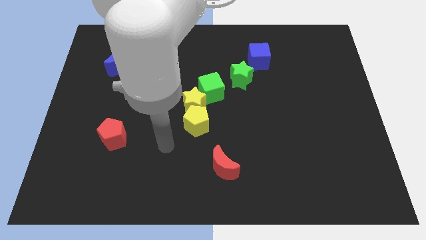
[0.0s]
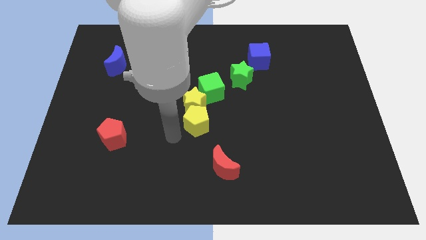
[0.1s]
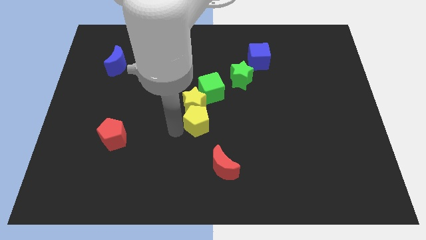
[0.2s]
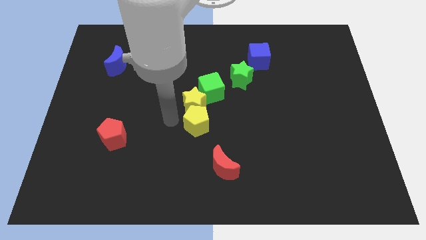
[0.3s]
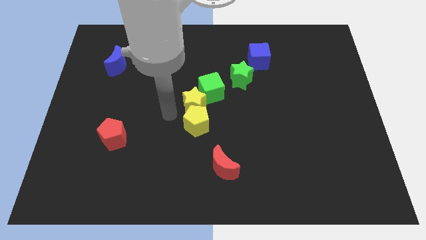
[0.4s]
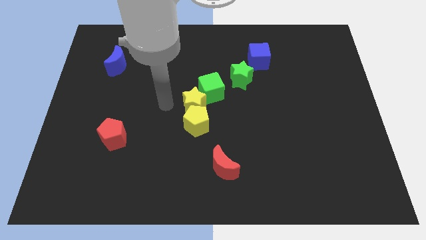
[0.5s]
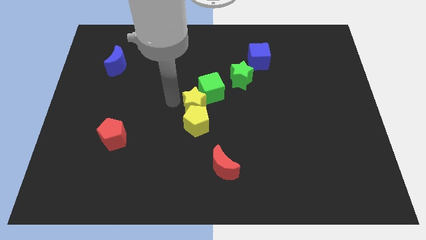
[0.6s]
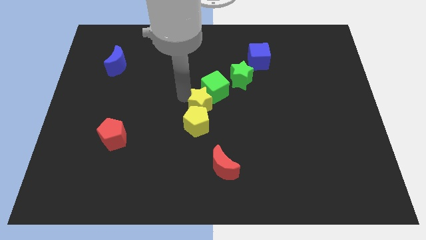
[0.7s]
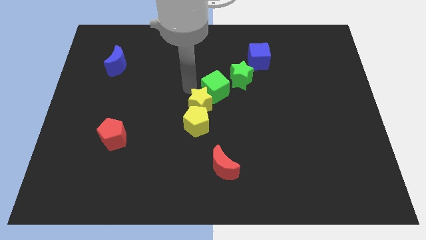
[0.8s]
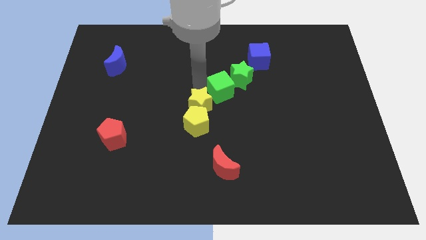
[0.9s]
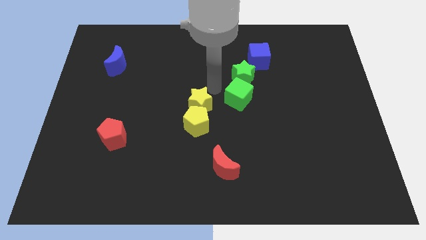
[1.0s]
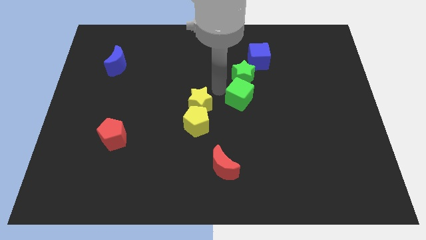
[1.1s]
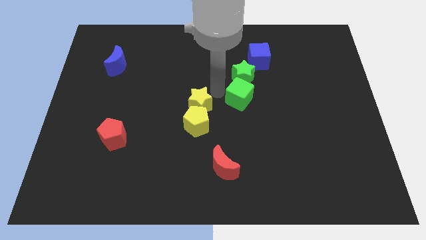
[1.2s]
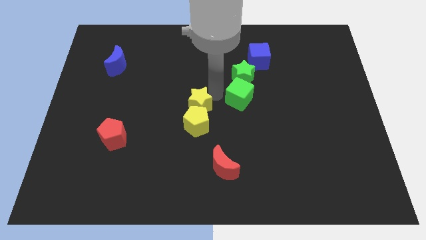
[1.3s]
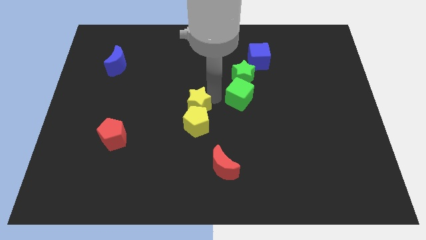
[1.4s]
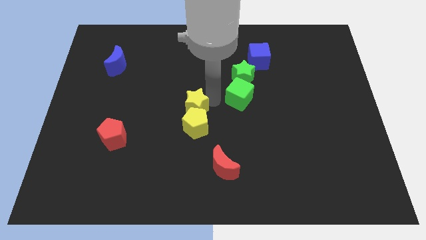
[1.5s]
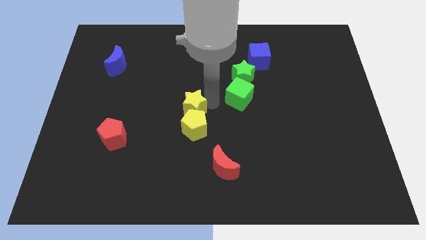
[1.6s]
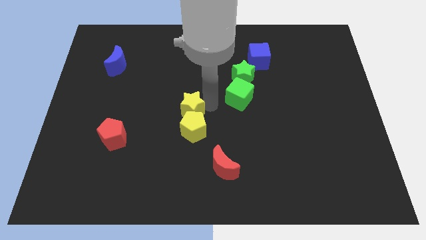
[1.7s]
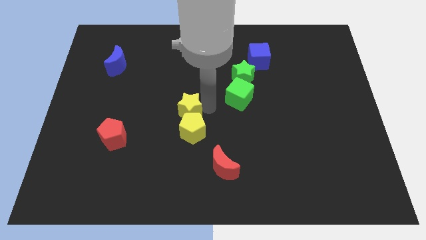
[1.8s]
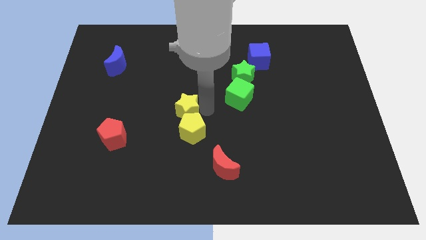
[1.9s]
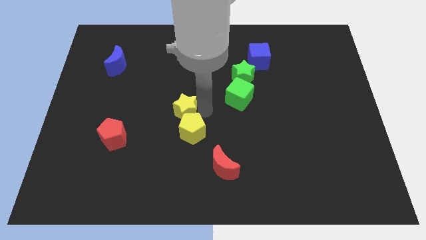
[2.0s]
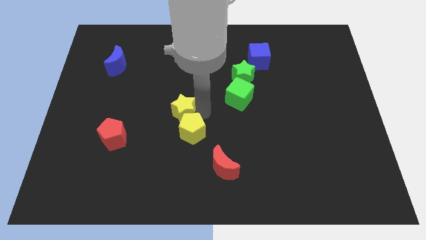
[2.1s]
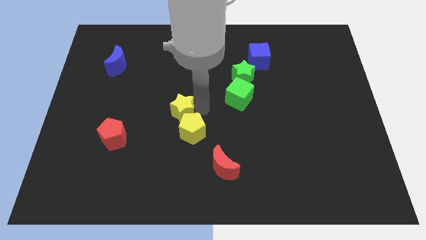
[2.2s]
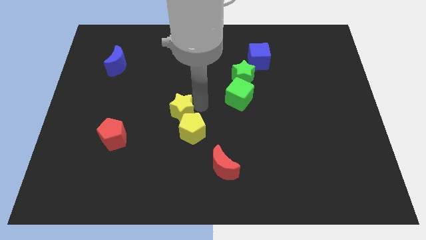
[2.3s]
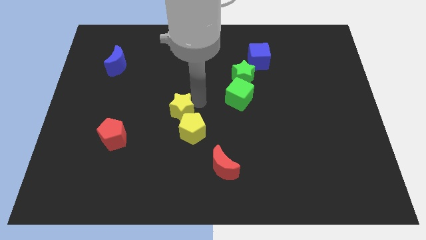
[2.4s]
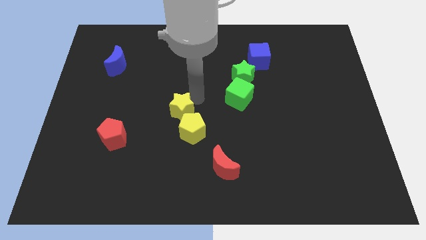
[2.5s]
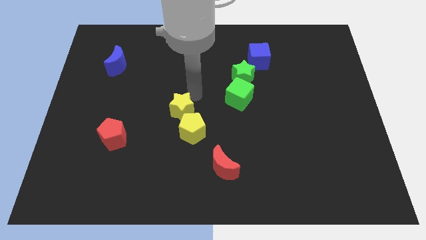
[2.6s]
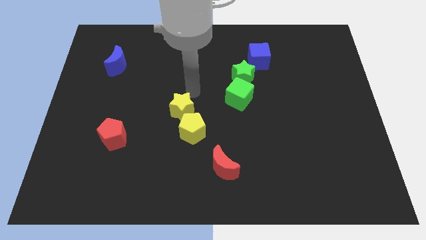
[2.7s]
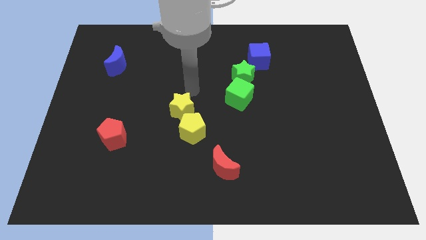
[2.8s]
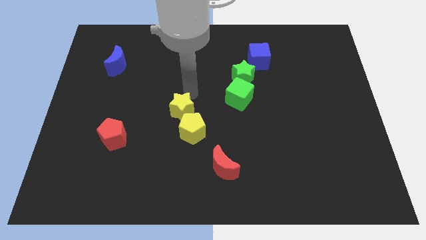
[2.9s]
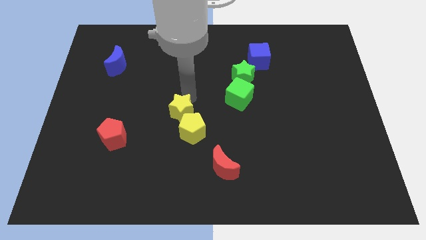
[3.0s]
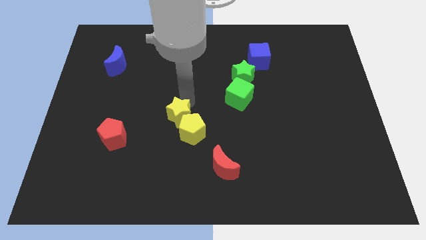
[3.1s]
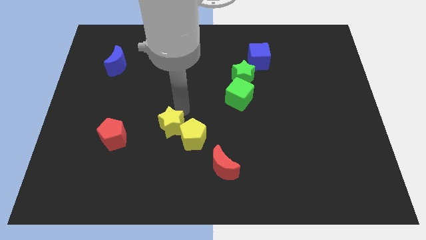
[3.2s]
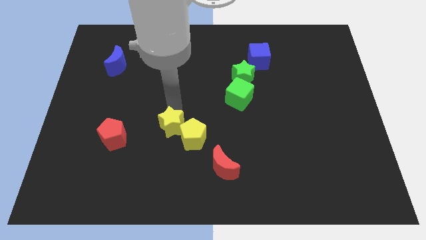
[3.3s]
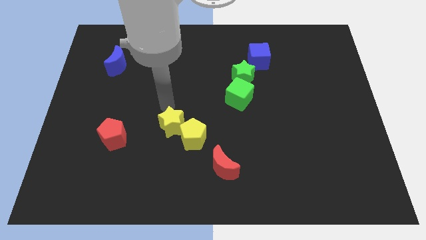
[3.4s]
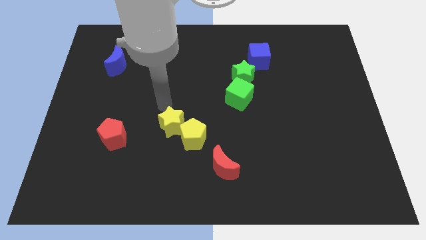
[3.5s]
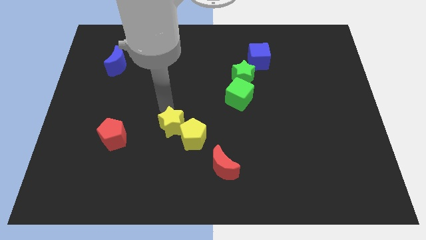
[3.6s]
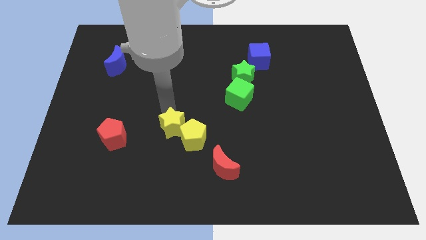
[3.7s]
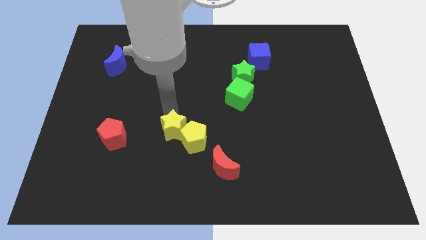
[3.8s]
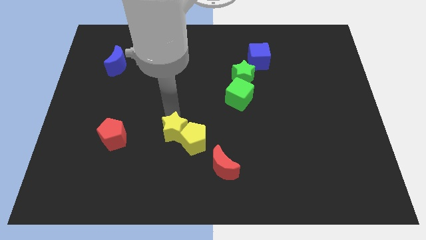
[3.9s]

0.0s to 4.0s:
slightly move the yellow star downwards

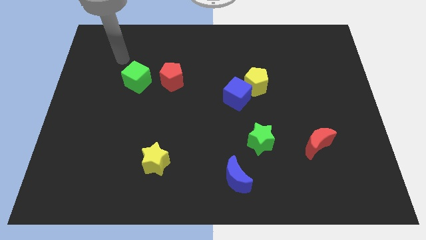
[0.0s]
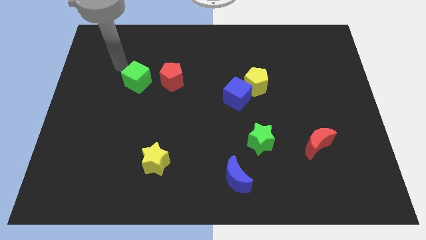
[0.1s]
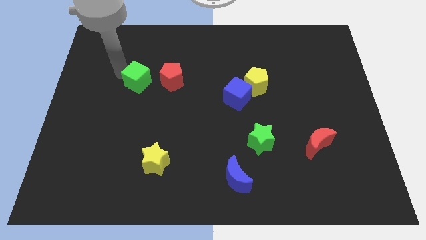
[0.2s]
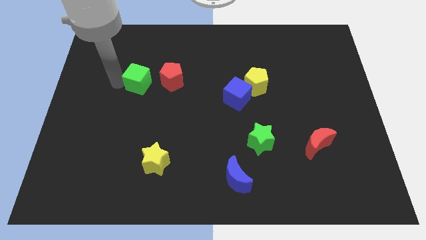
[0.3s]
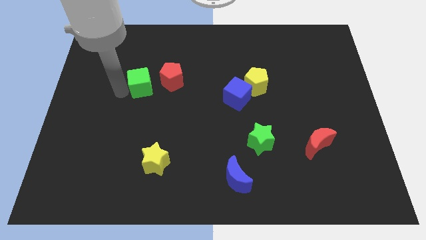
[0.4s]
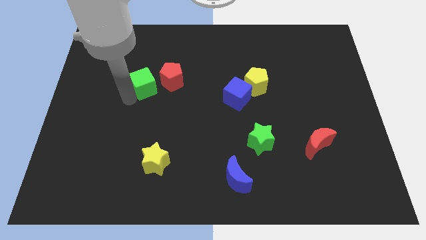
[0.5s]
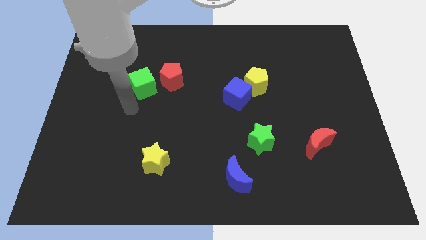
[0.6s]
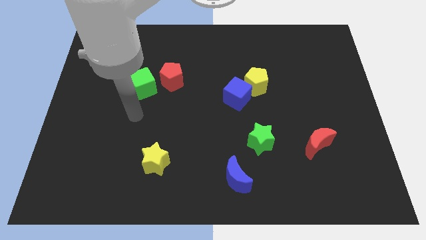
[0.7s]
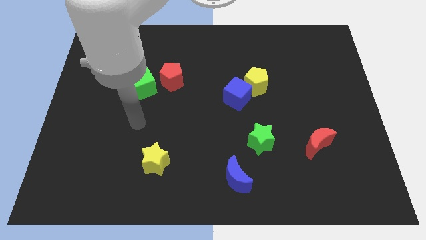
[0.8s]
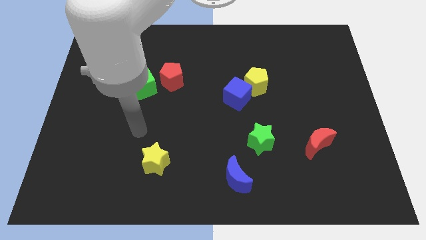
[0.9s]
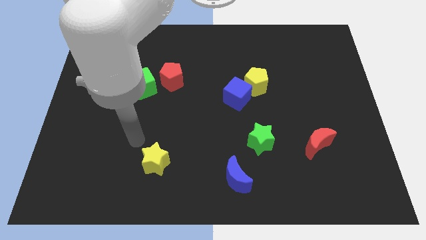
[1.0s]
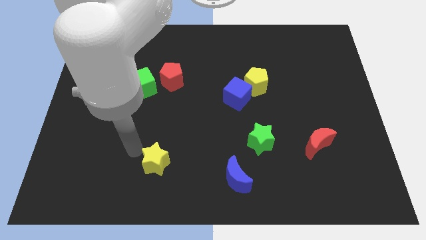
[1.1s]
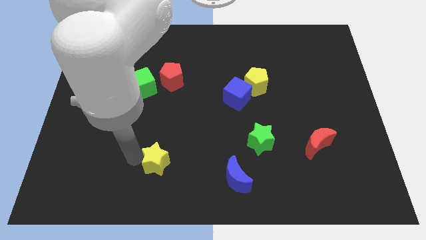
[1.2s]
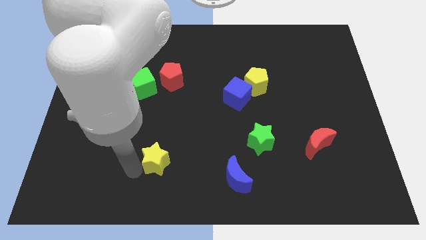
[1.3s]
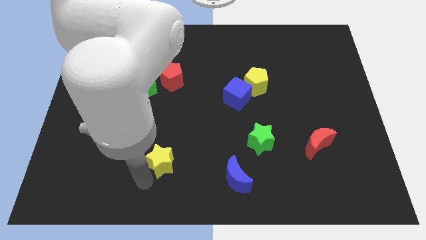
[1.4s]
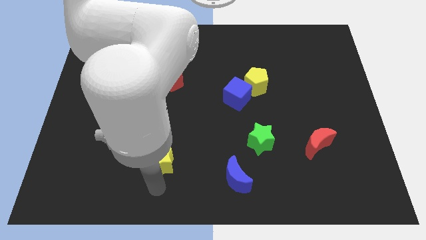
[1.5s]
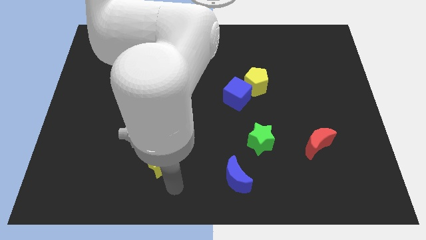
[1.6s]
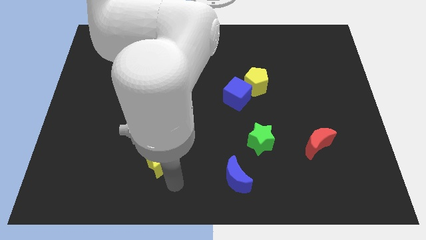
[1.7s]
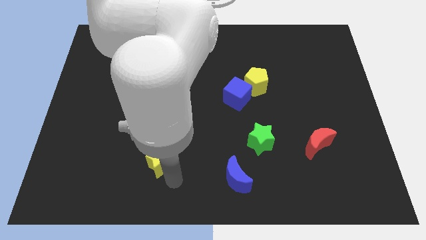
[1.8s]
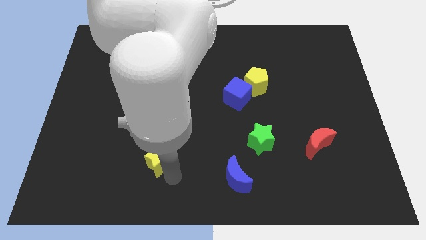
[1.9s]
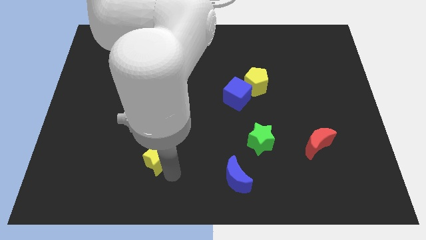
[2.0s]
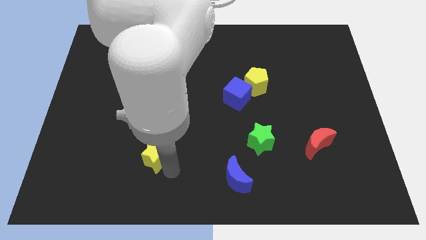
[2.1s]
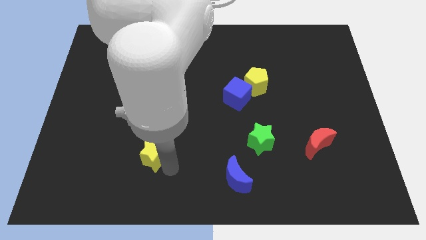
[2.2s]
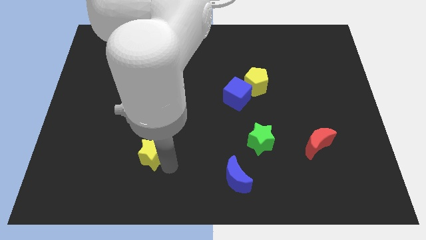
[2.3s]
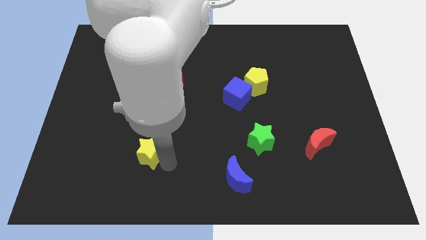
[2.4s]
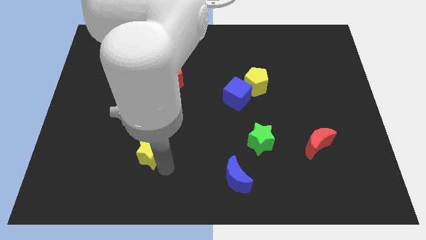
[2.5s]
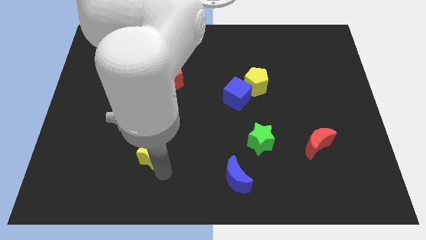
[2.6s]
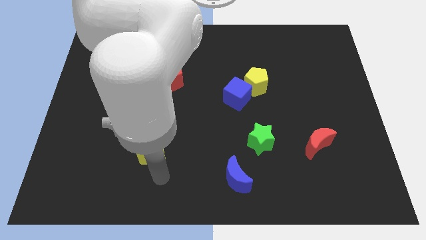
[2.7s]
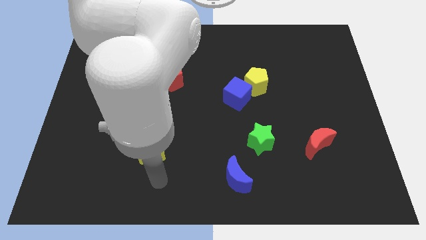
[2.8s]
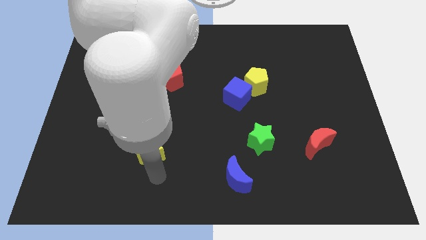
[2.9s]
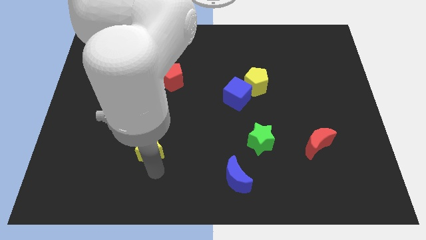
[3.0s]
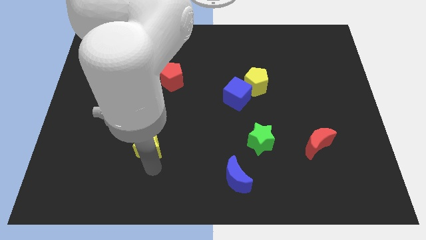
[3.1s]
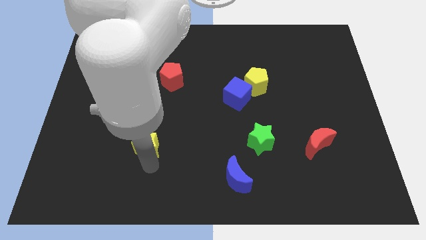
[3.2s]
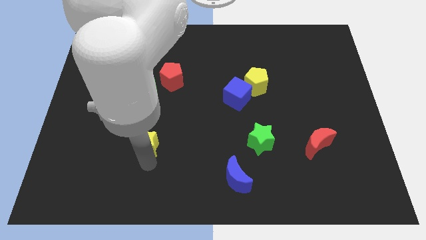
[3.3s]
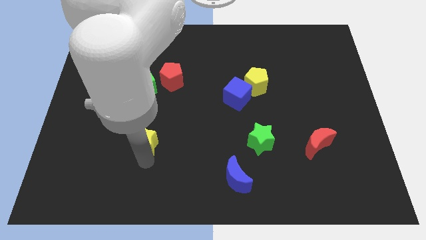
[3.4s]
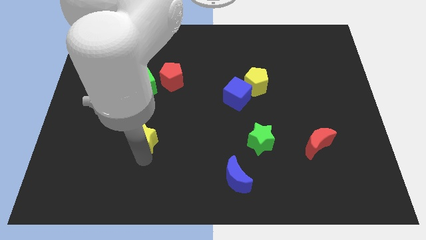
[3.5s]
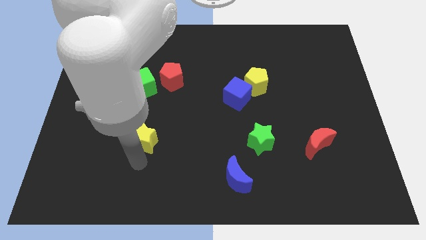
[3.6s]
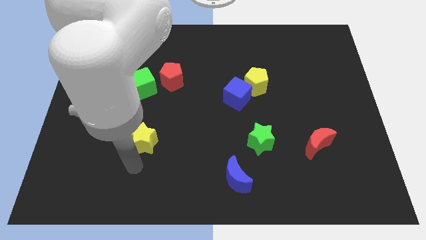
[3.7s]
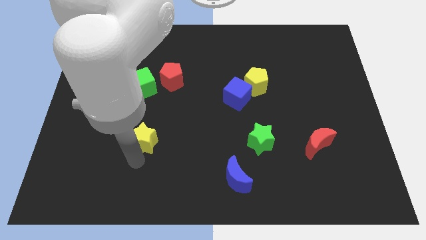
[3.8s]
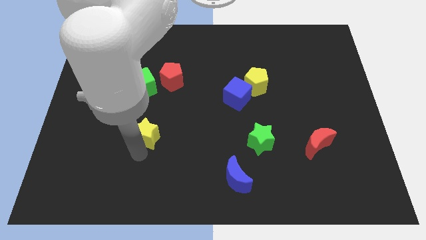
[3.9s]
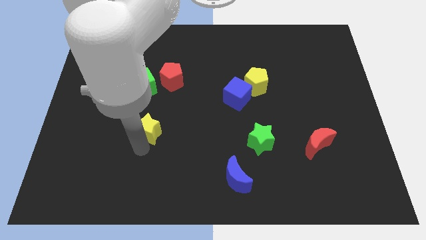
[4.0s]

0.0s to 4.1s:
push the yellow star a bit up

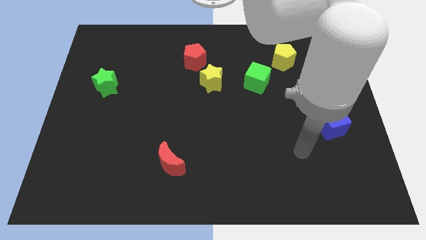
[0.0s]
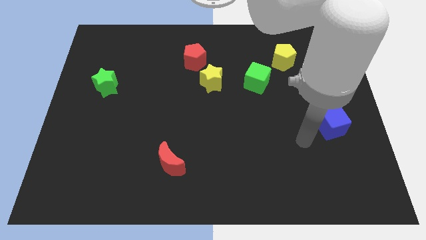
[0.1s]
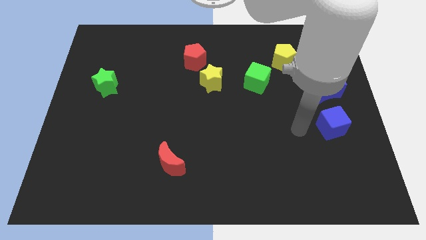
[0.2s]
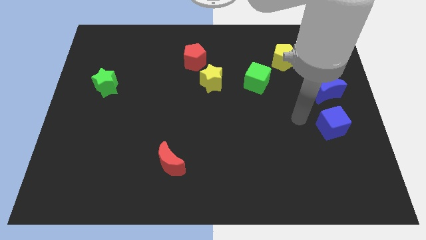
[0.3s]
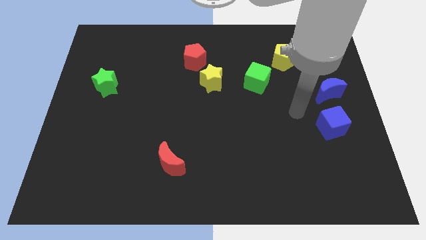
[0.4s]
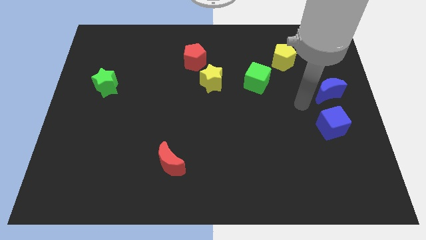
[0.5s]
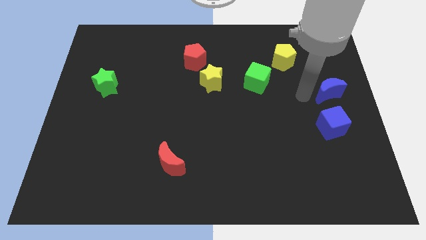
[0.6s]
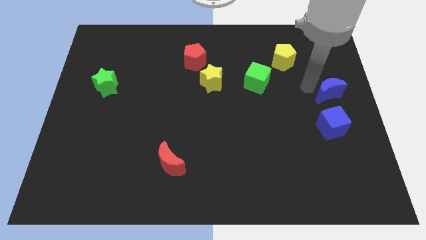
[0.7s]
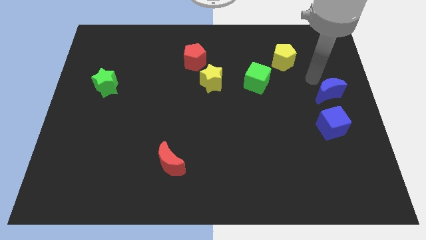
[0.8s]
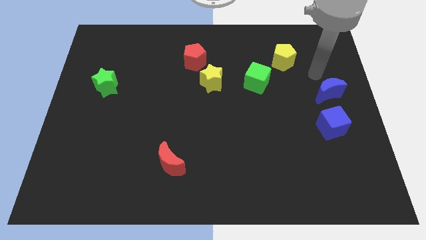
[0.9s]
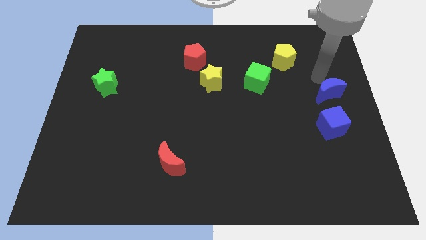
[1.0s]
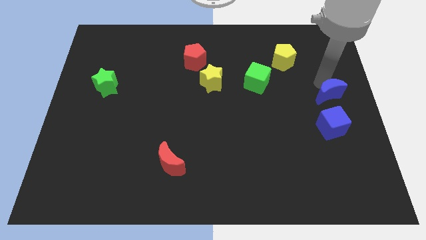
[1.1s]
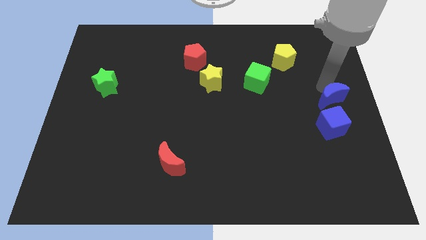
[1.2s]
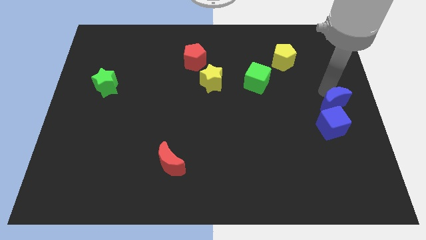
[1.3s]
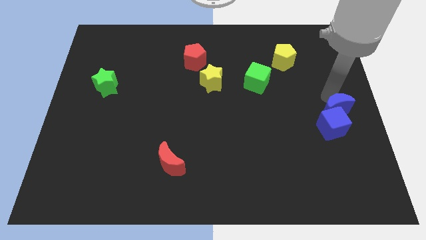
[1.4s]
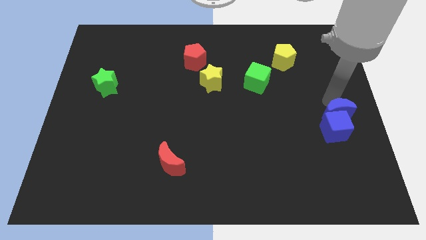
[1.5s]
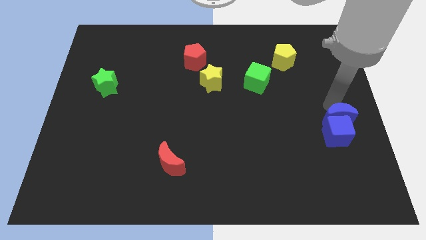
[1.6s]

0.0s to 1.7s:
move the blue moon slightly down
